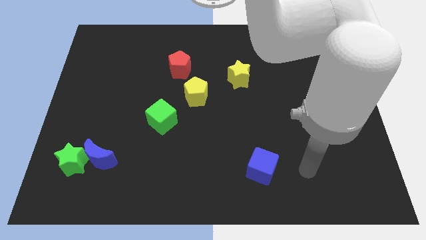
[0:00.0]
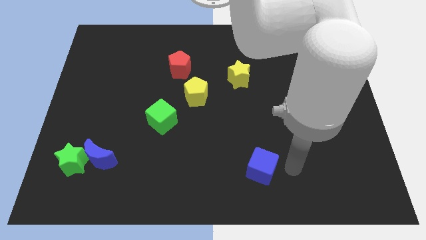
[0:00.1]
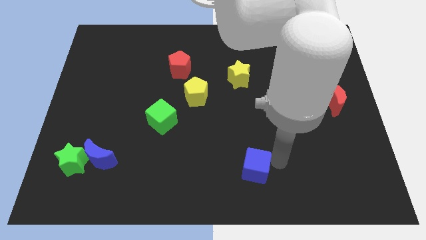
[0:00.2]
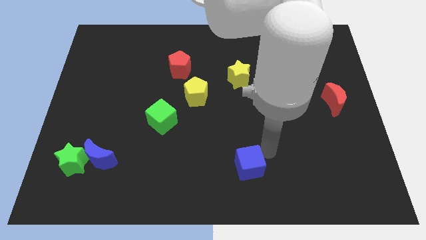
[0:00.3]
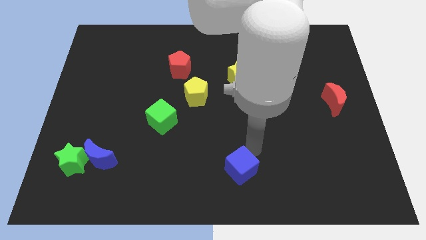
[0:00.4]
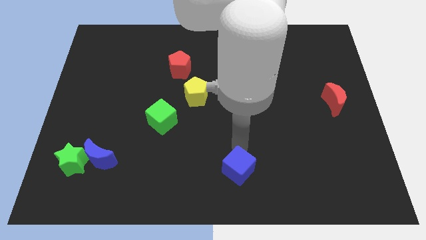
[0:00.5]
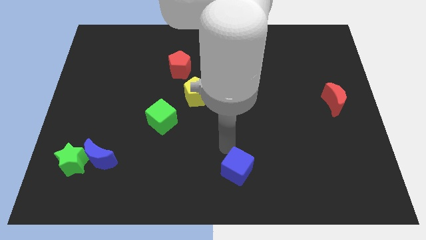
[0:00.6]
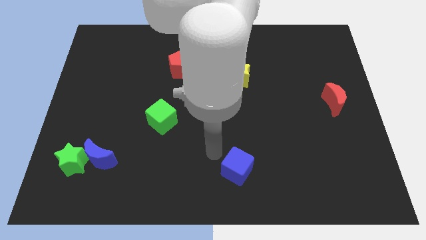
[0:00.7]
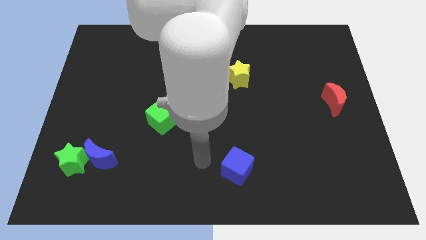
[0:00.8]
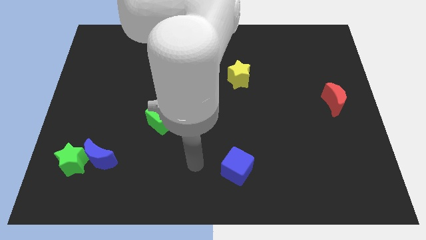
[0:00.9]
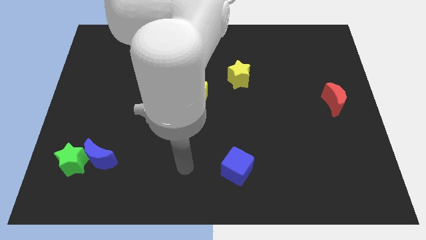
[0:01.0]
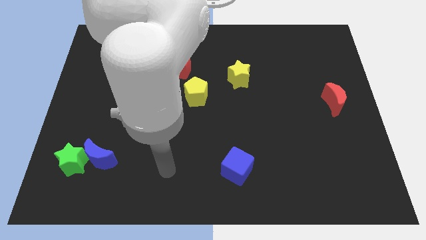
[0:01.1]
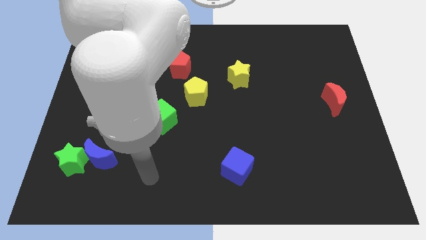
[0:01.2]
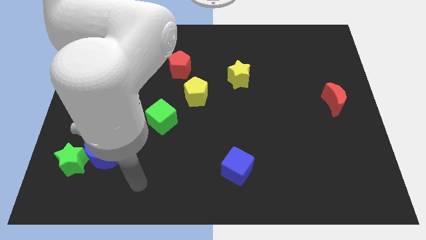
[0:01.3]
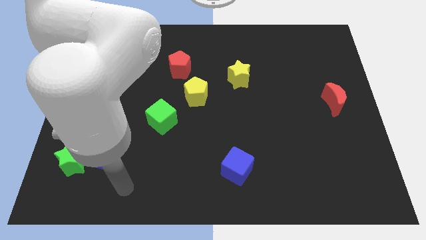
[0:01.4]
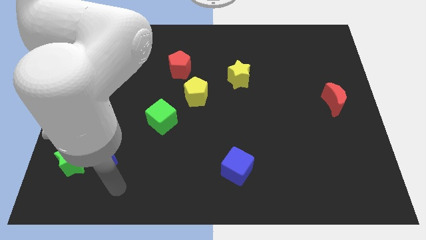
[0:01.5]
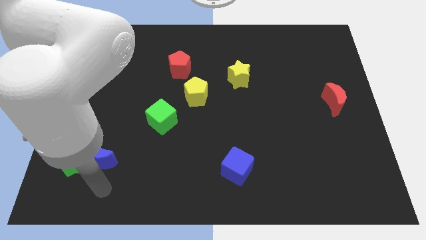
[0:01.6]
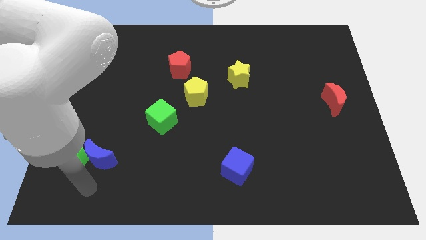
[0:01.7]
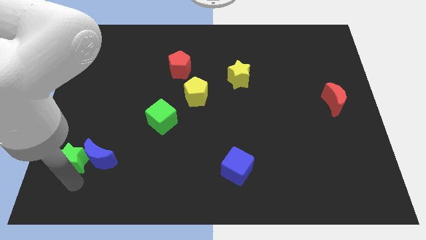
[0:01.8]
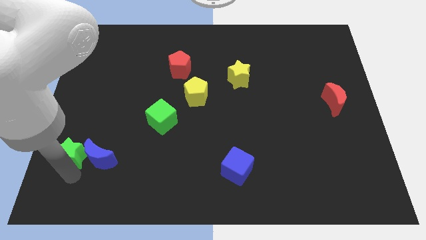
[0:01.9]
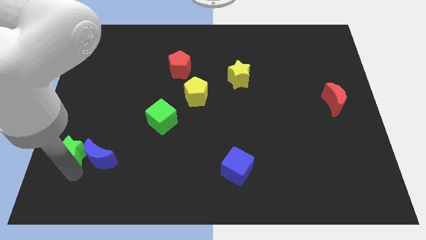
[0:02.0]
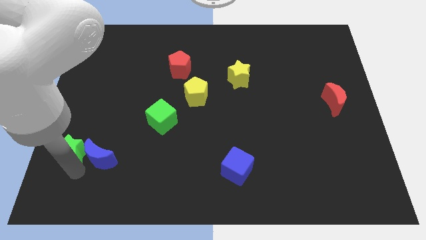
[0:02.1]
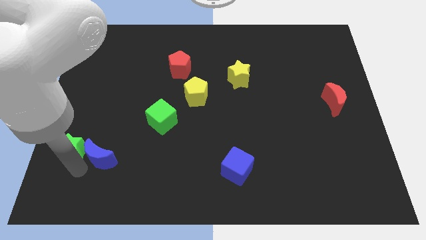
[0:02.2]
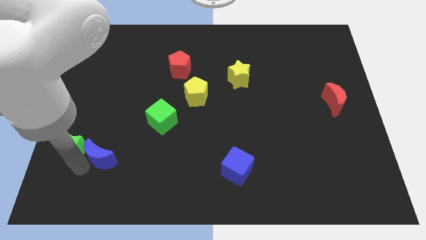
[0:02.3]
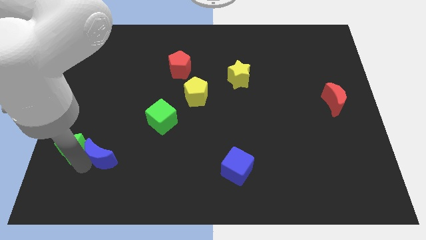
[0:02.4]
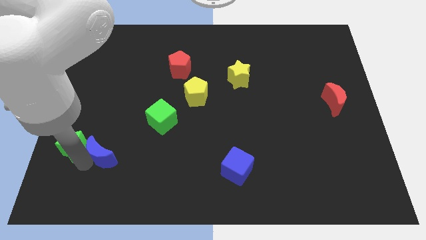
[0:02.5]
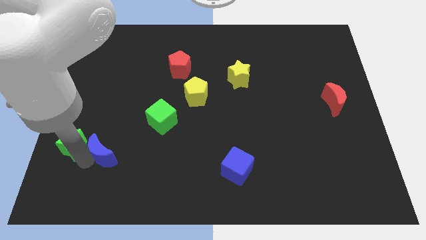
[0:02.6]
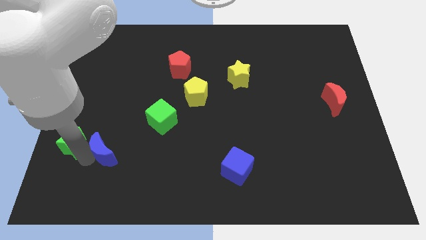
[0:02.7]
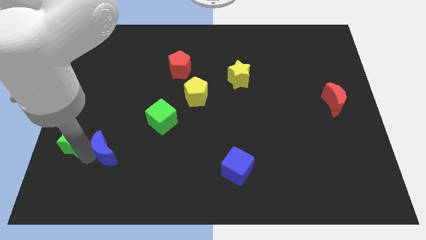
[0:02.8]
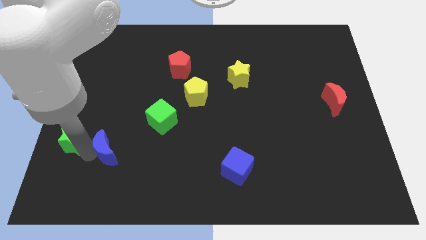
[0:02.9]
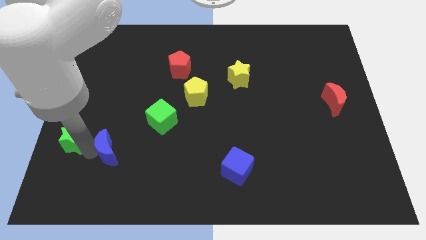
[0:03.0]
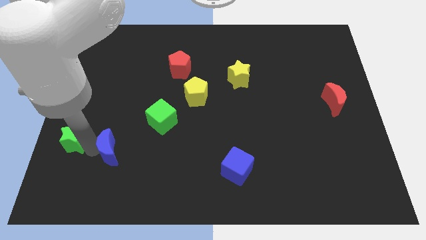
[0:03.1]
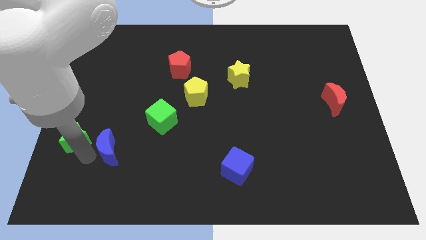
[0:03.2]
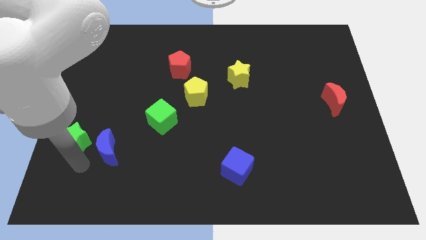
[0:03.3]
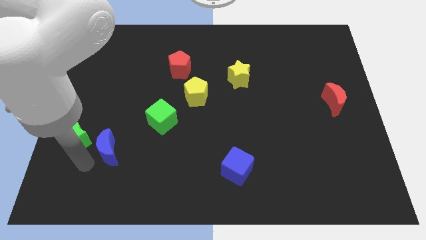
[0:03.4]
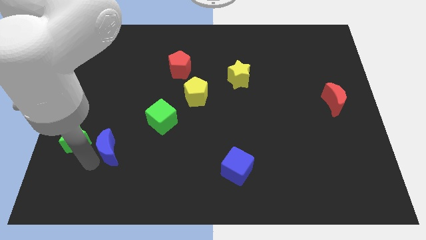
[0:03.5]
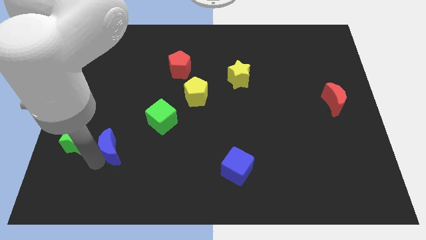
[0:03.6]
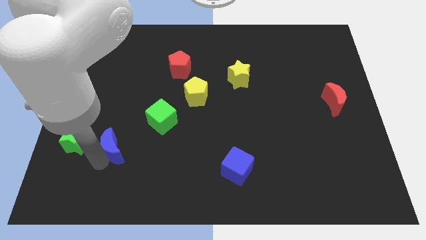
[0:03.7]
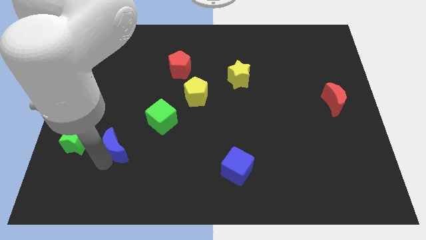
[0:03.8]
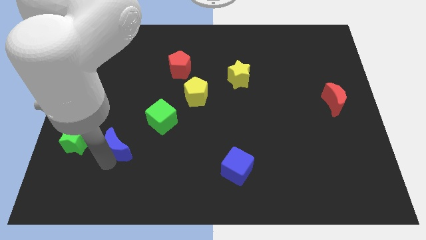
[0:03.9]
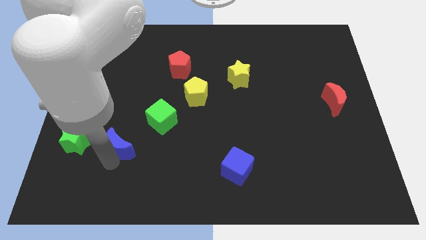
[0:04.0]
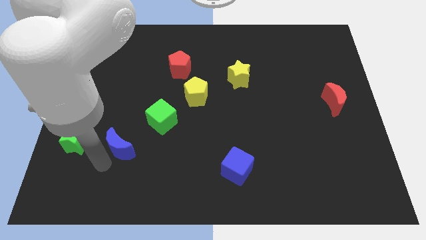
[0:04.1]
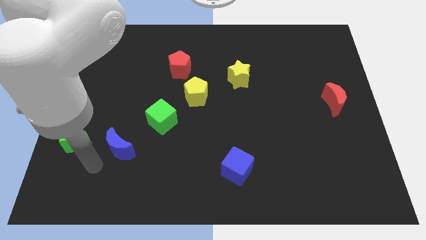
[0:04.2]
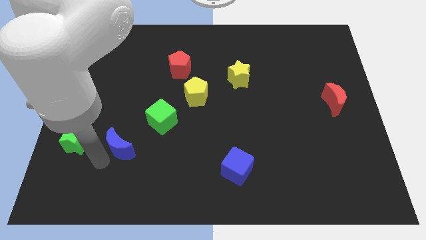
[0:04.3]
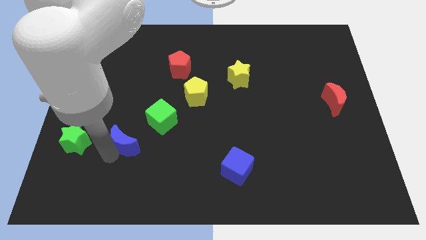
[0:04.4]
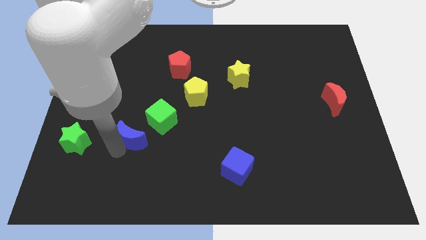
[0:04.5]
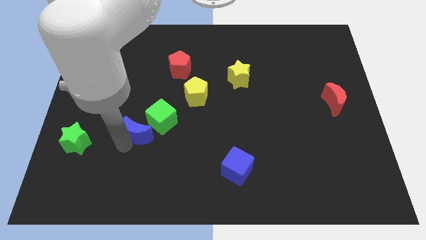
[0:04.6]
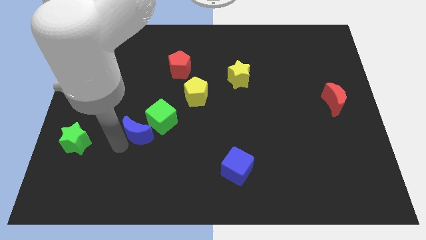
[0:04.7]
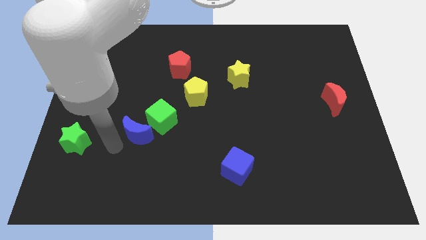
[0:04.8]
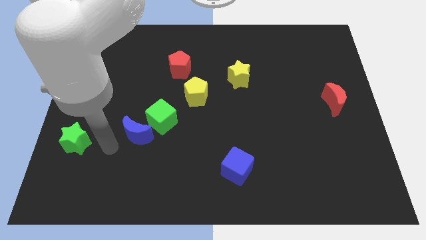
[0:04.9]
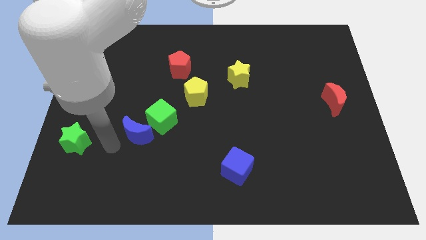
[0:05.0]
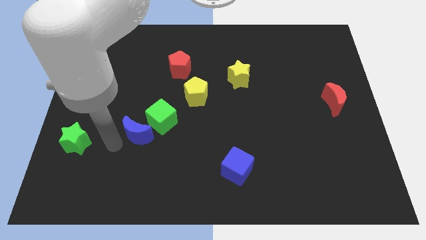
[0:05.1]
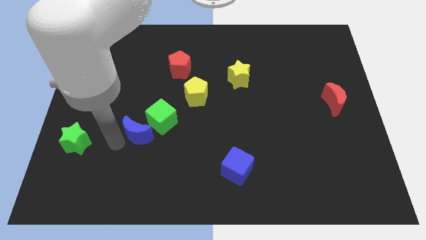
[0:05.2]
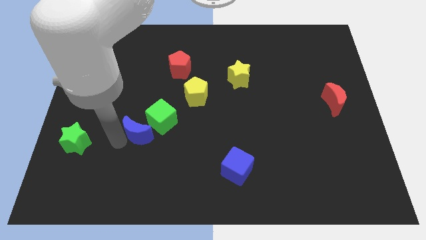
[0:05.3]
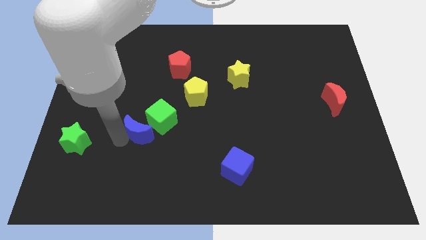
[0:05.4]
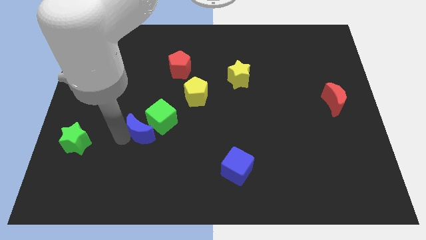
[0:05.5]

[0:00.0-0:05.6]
move the blue moon close to the green cube
